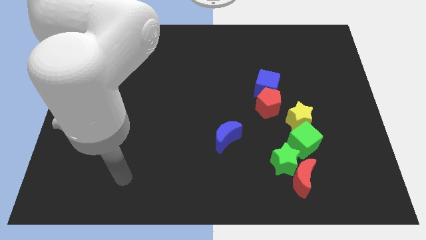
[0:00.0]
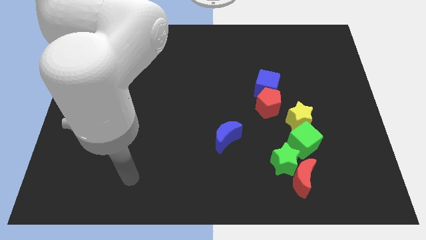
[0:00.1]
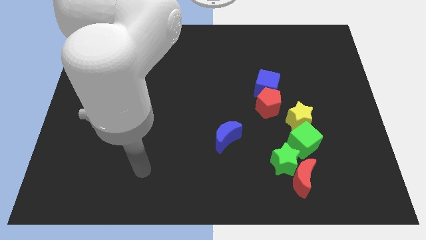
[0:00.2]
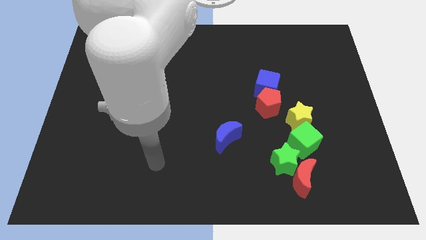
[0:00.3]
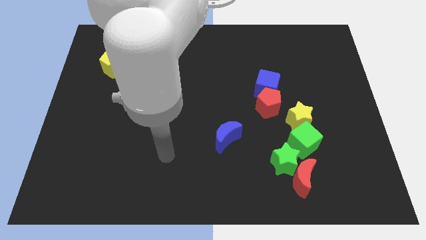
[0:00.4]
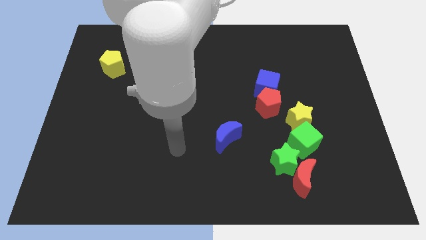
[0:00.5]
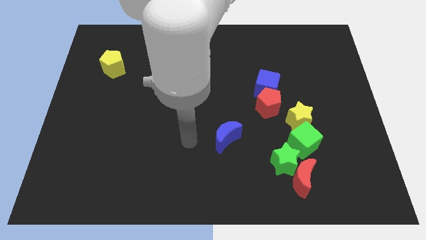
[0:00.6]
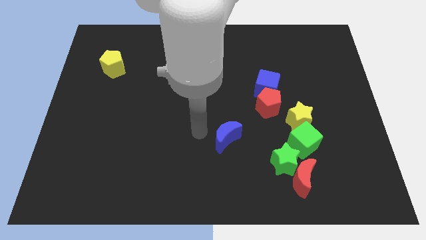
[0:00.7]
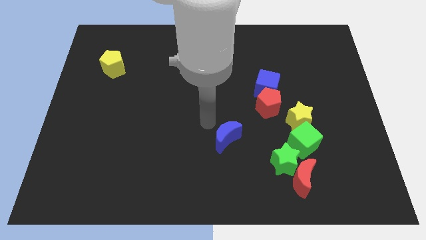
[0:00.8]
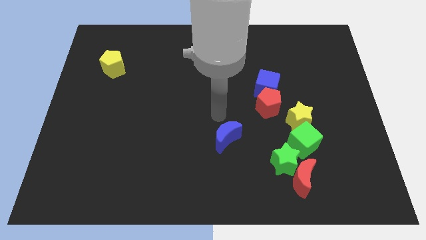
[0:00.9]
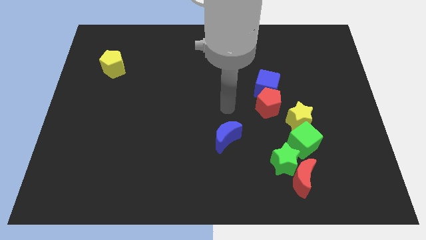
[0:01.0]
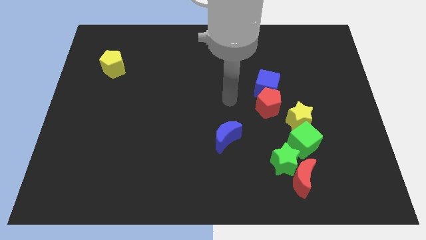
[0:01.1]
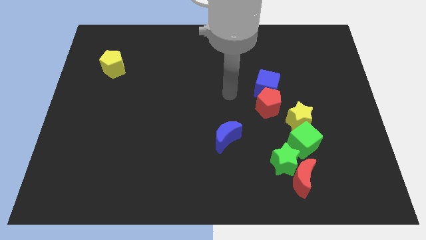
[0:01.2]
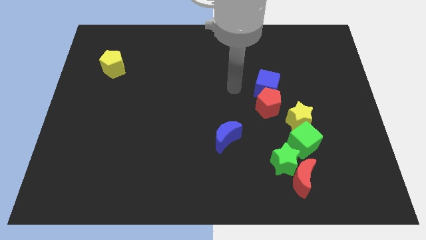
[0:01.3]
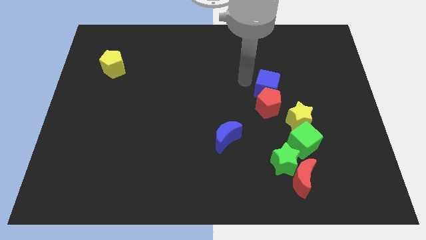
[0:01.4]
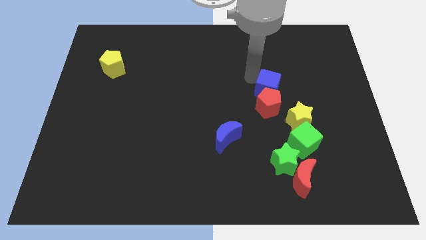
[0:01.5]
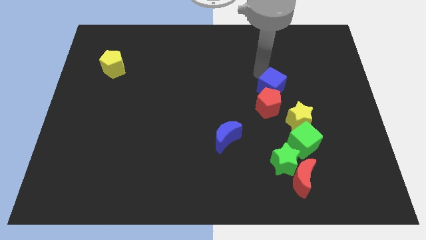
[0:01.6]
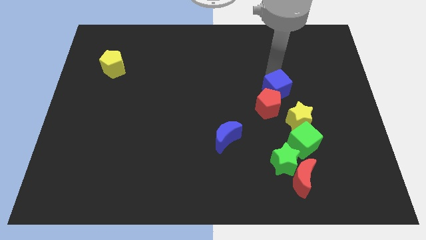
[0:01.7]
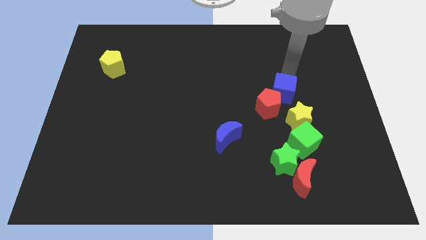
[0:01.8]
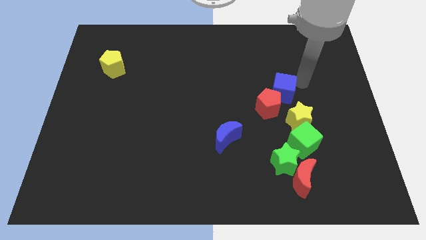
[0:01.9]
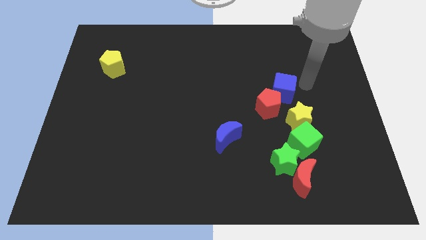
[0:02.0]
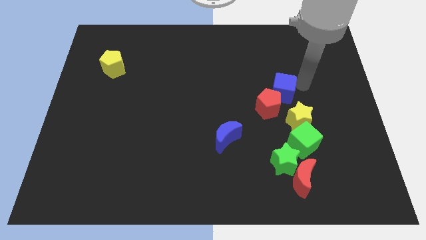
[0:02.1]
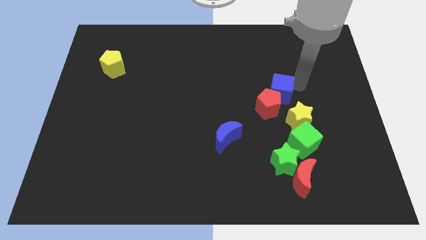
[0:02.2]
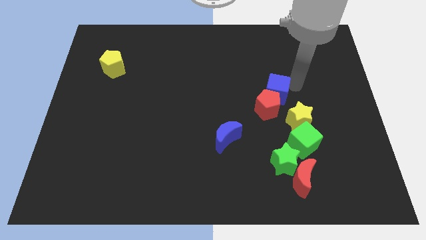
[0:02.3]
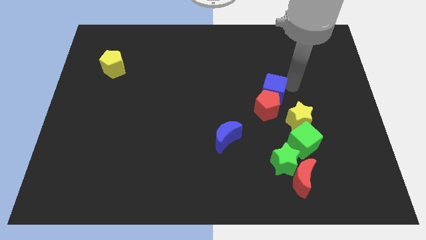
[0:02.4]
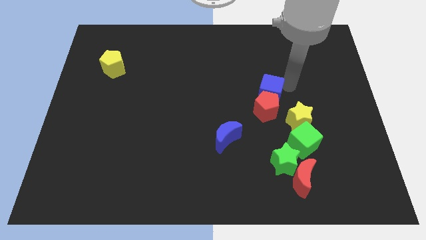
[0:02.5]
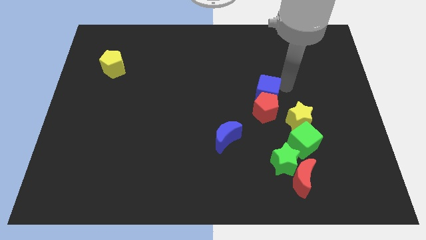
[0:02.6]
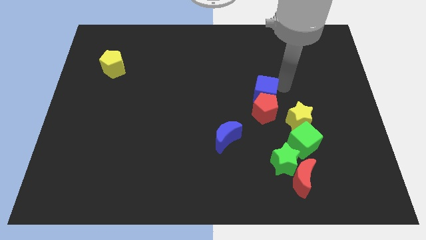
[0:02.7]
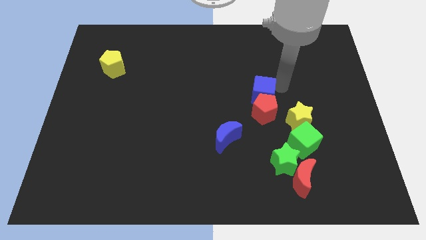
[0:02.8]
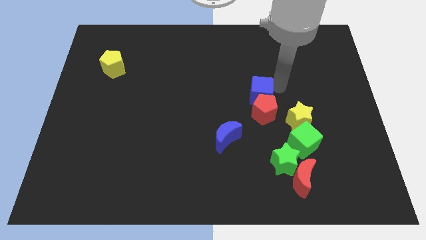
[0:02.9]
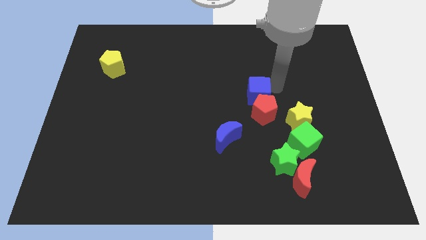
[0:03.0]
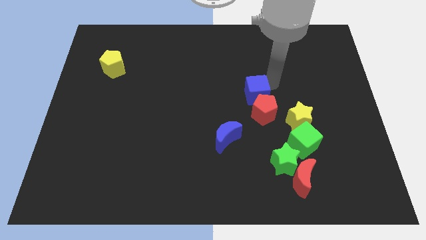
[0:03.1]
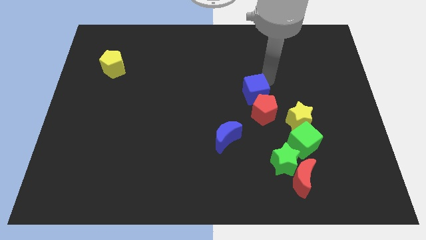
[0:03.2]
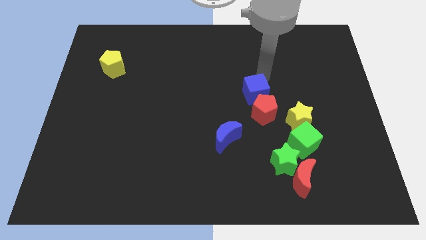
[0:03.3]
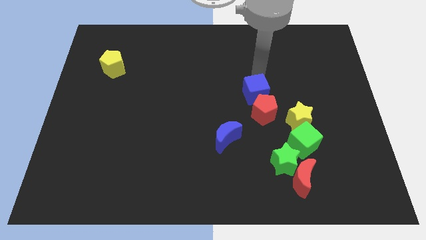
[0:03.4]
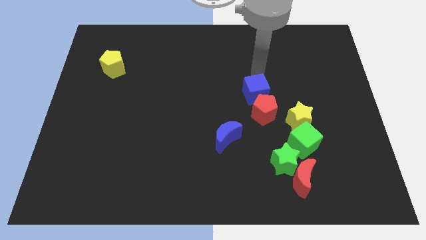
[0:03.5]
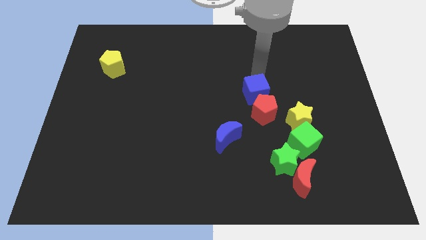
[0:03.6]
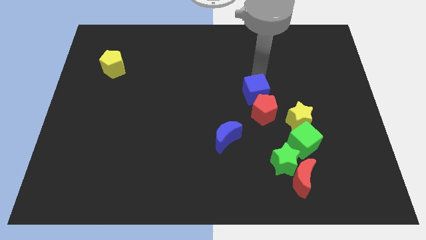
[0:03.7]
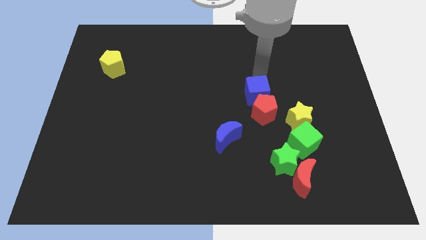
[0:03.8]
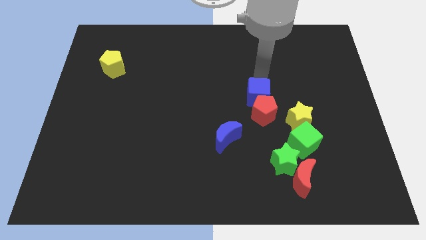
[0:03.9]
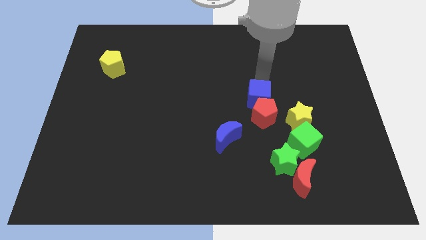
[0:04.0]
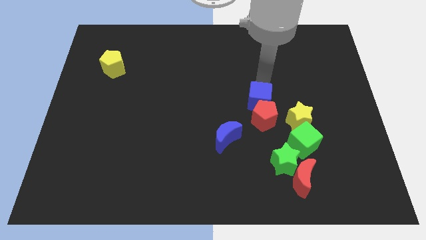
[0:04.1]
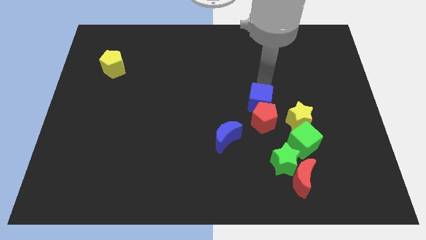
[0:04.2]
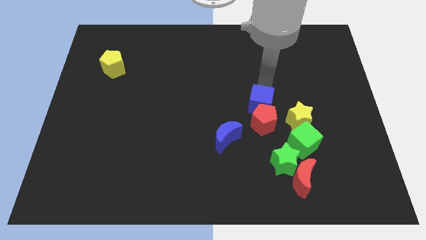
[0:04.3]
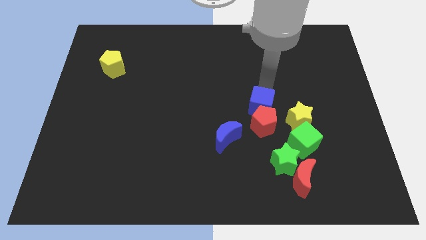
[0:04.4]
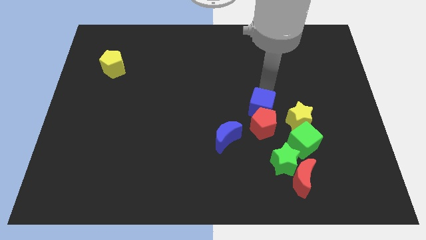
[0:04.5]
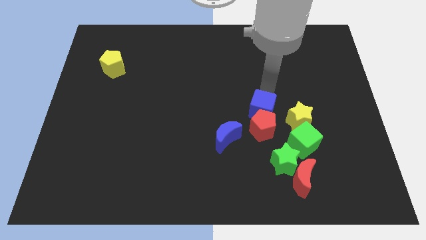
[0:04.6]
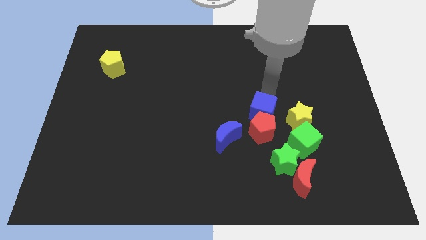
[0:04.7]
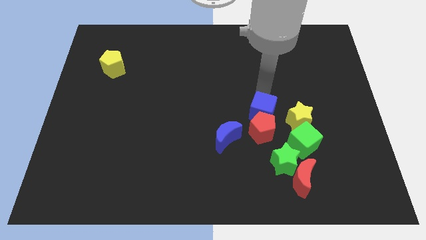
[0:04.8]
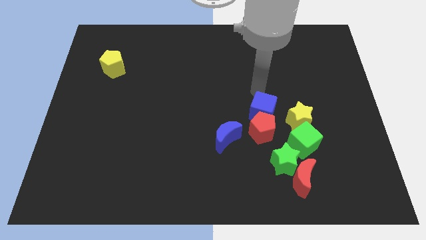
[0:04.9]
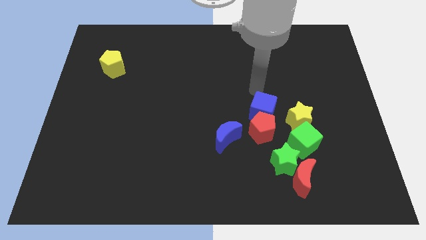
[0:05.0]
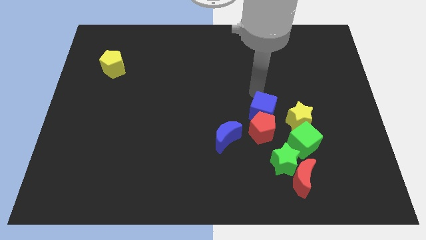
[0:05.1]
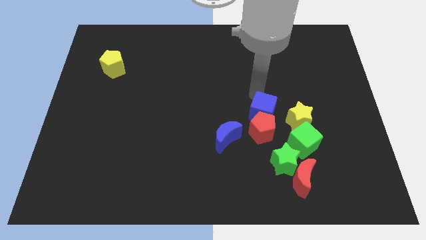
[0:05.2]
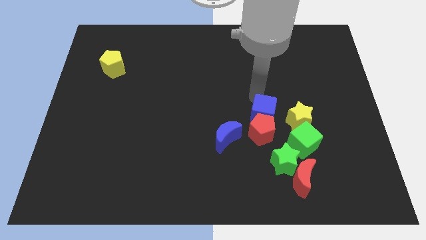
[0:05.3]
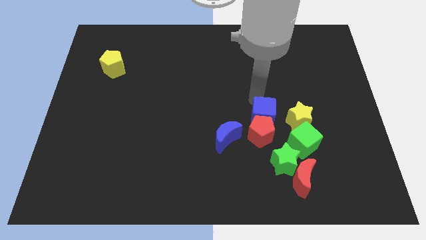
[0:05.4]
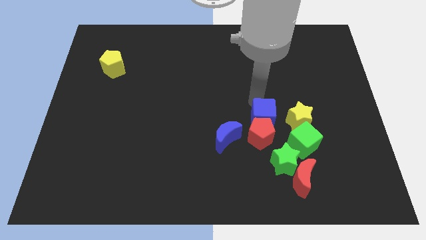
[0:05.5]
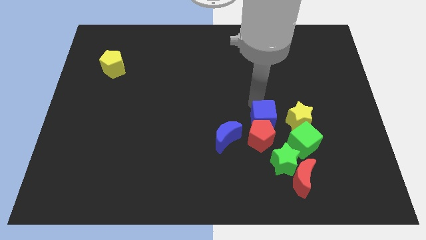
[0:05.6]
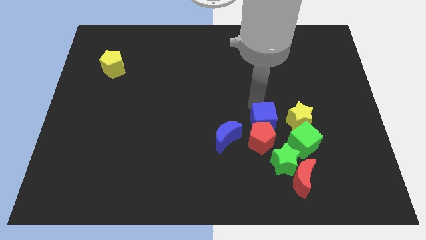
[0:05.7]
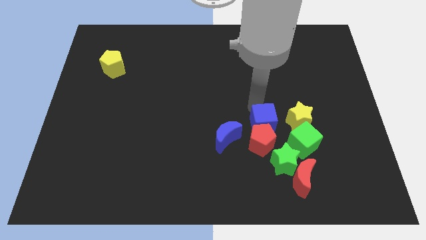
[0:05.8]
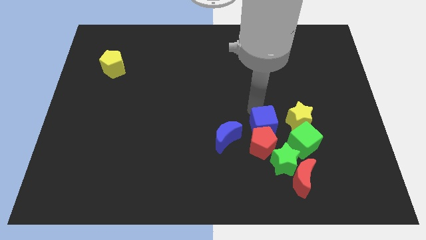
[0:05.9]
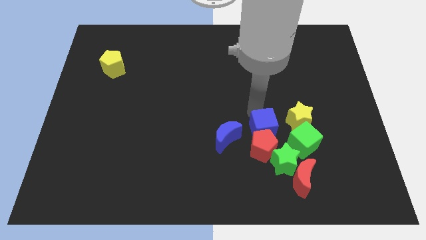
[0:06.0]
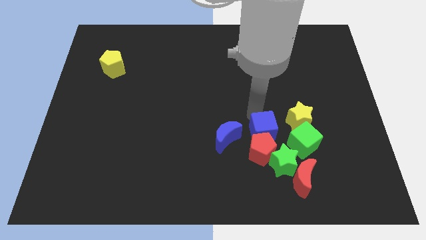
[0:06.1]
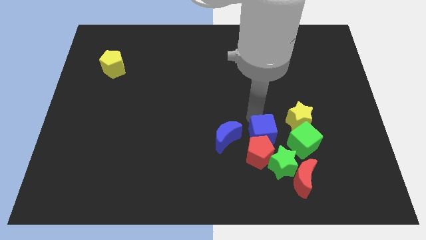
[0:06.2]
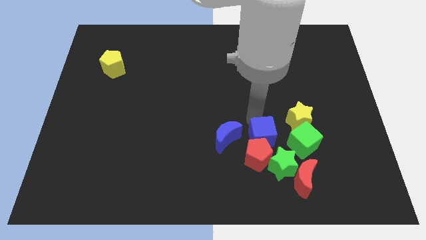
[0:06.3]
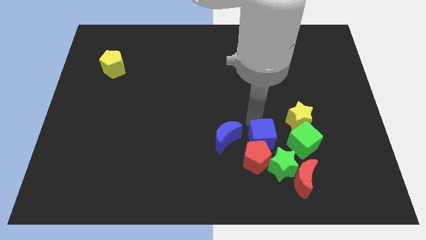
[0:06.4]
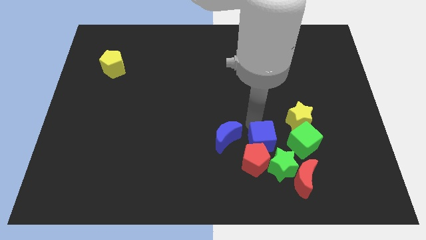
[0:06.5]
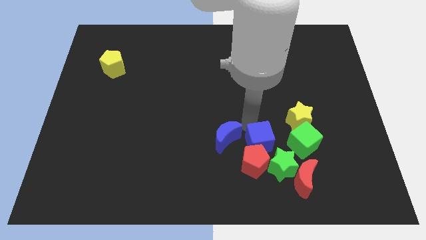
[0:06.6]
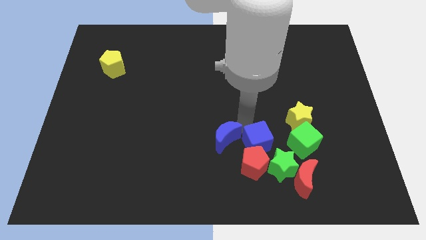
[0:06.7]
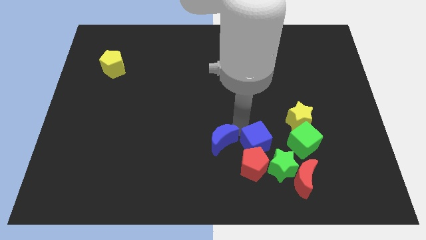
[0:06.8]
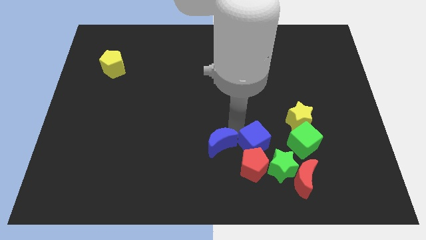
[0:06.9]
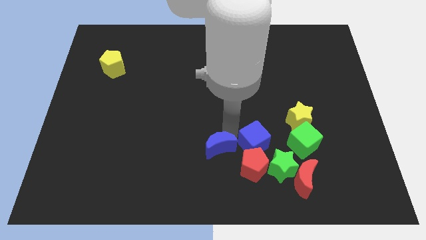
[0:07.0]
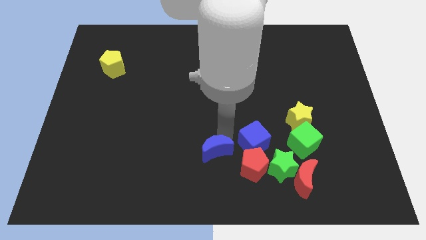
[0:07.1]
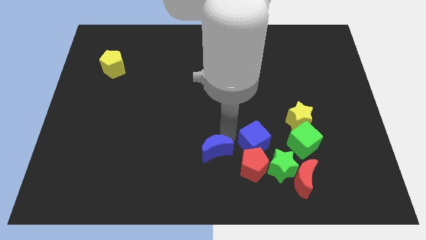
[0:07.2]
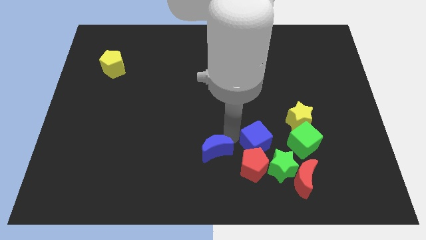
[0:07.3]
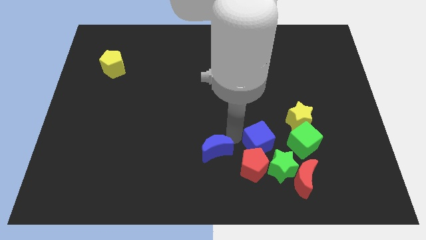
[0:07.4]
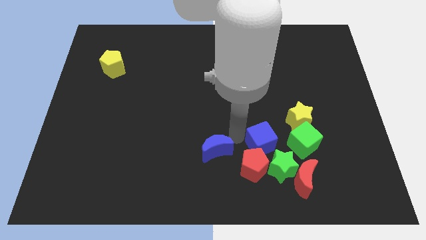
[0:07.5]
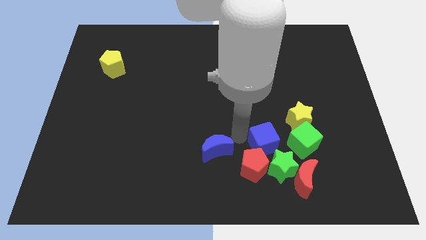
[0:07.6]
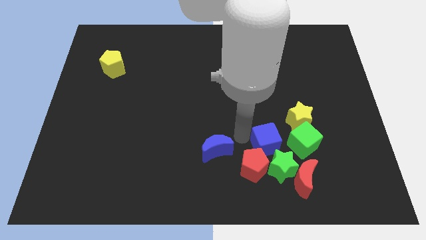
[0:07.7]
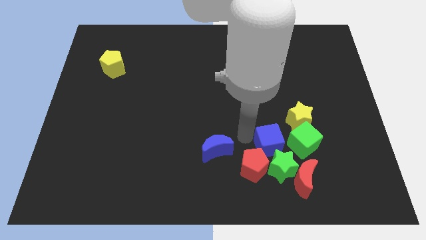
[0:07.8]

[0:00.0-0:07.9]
move the blue cube towards the green star
